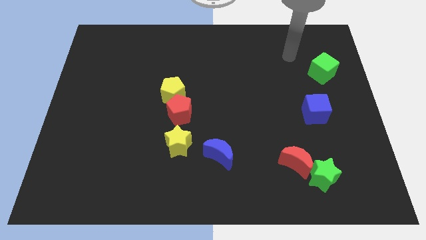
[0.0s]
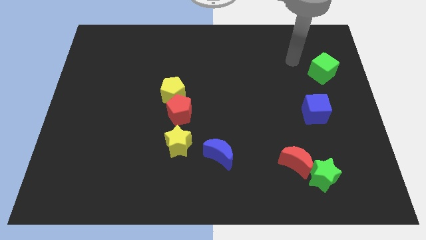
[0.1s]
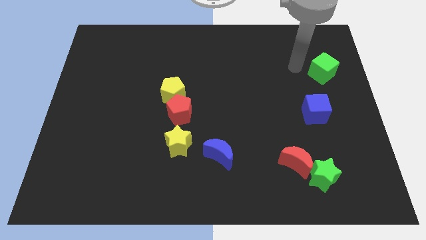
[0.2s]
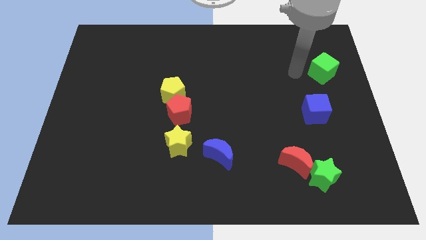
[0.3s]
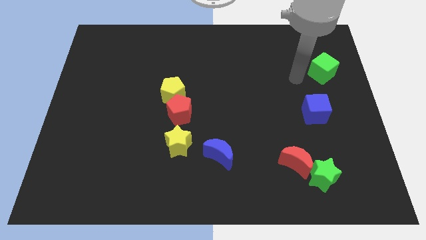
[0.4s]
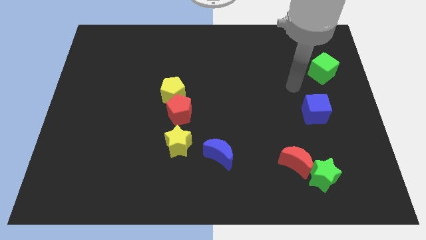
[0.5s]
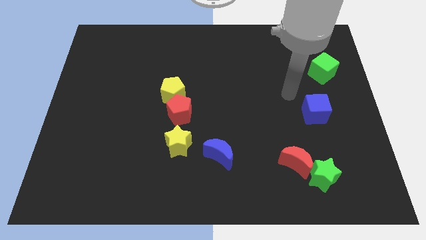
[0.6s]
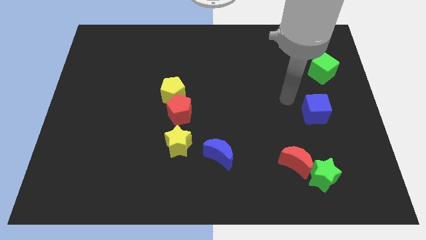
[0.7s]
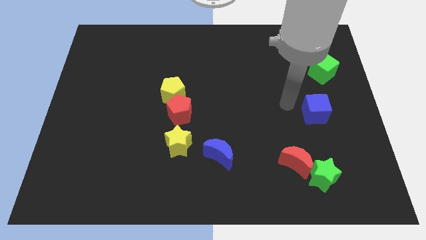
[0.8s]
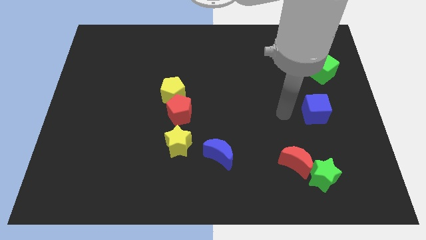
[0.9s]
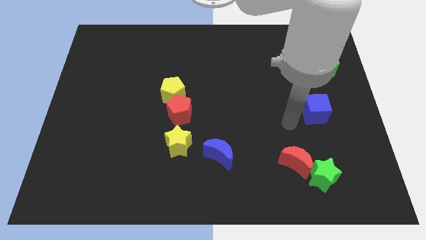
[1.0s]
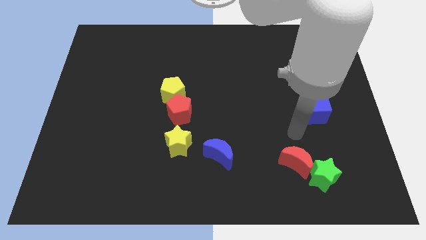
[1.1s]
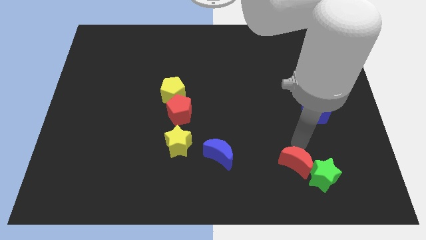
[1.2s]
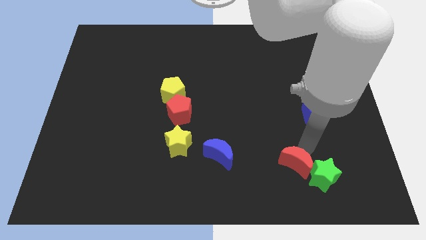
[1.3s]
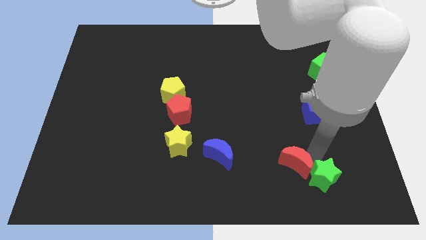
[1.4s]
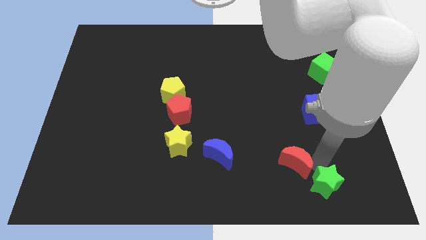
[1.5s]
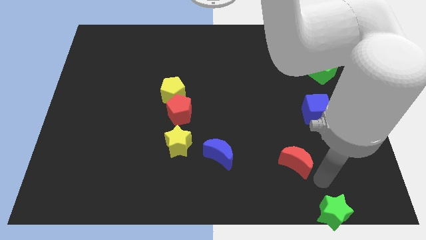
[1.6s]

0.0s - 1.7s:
pull the red moon apart from the green star

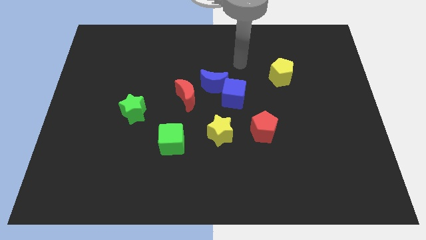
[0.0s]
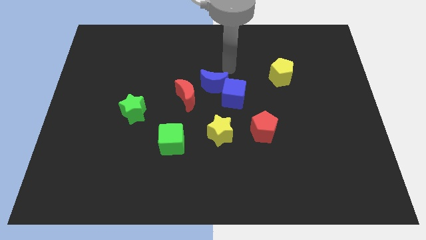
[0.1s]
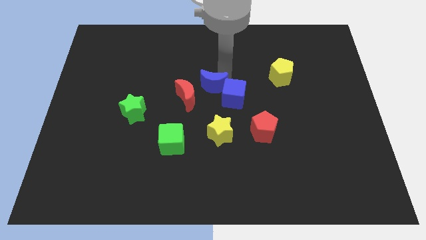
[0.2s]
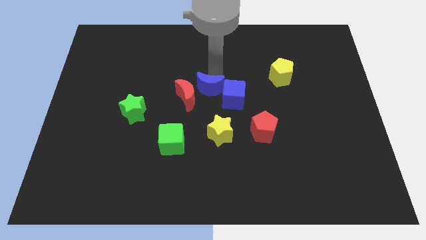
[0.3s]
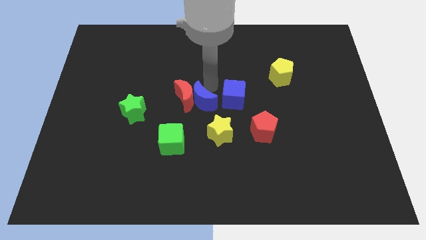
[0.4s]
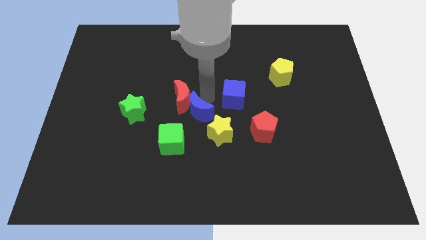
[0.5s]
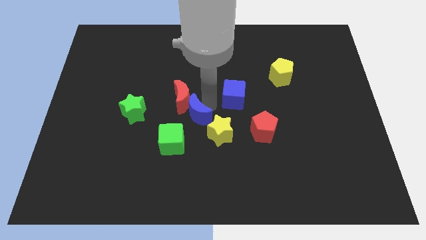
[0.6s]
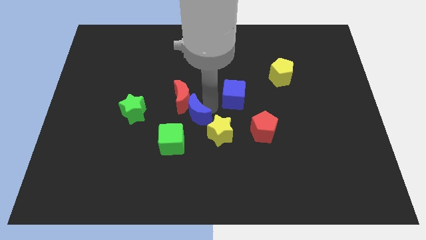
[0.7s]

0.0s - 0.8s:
move the blue cube away from the blue moon

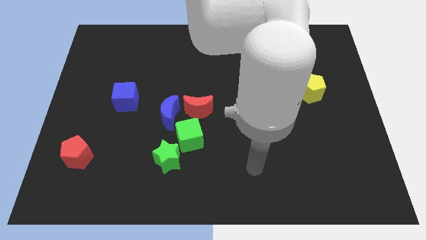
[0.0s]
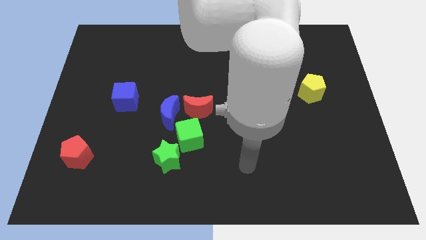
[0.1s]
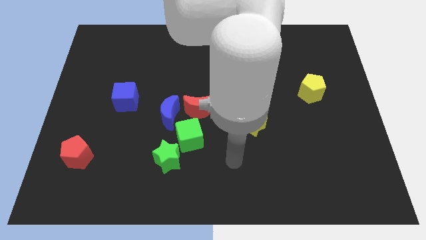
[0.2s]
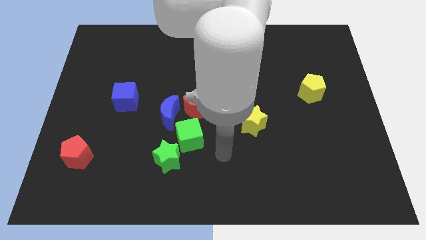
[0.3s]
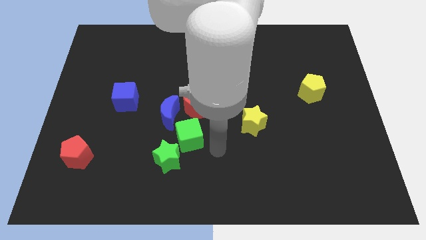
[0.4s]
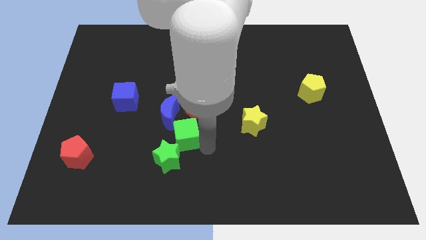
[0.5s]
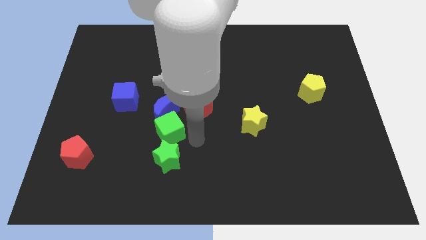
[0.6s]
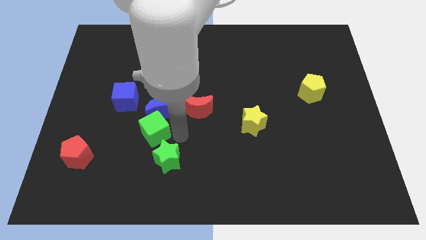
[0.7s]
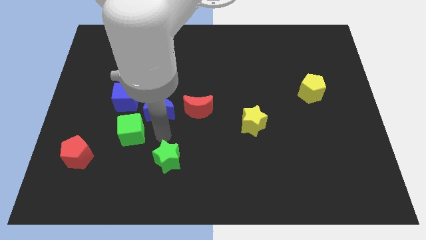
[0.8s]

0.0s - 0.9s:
move the green star away from the green cube

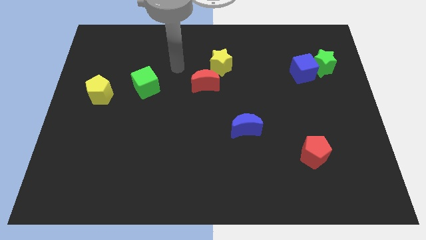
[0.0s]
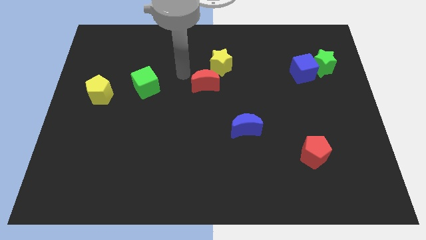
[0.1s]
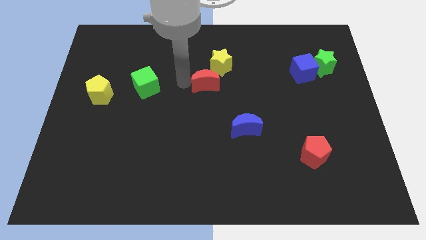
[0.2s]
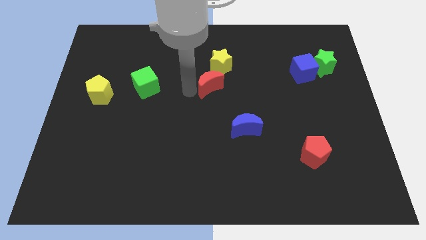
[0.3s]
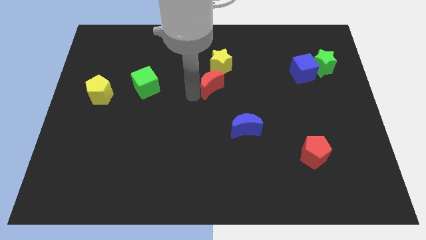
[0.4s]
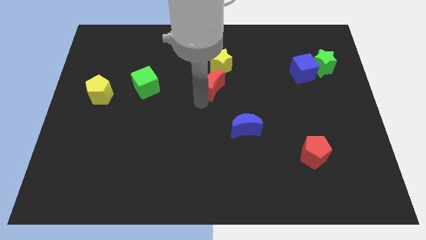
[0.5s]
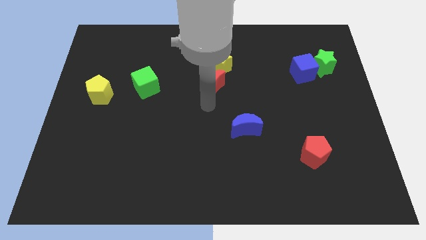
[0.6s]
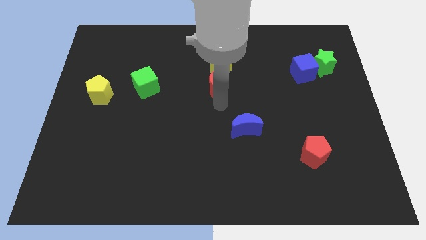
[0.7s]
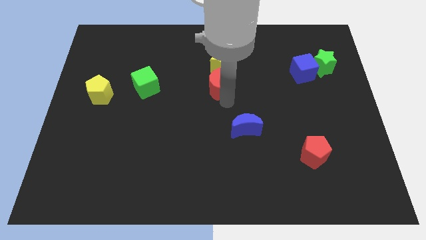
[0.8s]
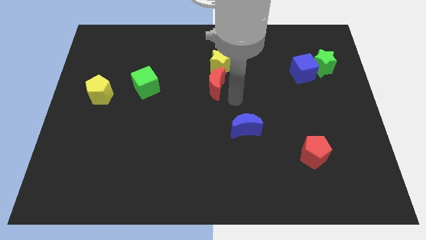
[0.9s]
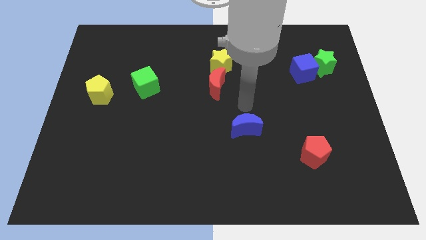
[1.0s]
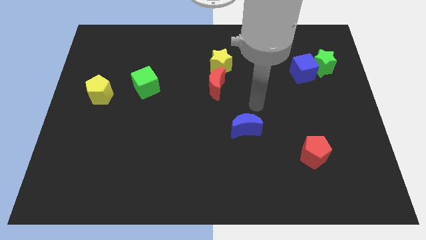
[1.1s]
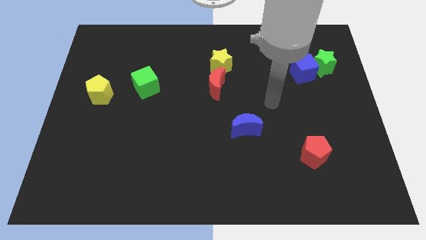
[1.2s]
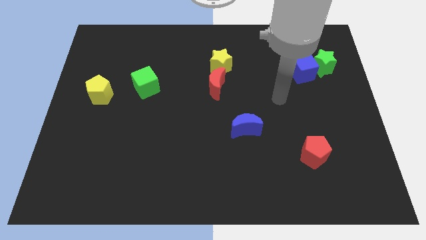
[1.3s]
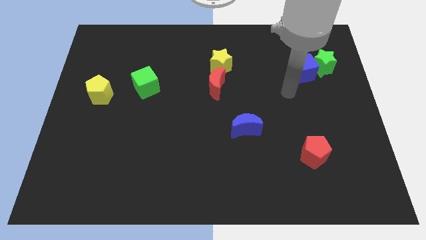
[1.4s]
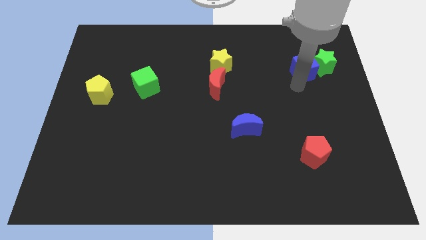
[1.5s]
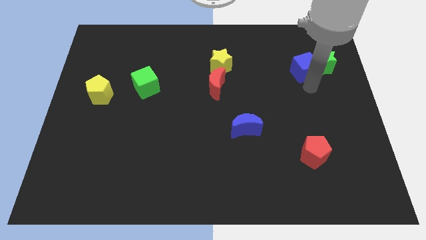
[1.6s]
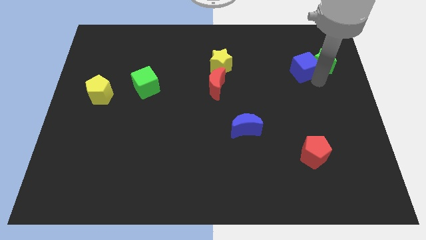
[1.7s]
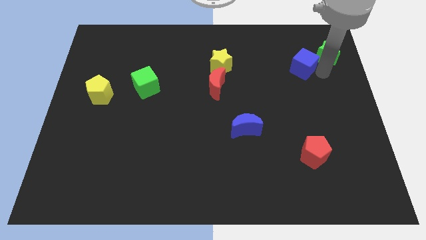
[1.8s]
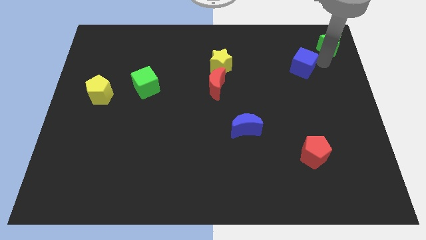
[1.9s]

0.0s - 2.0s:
pull the blue cube apart from the green star

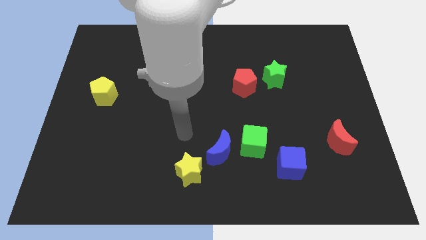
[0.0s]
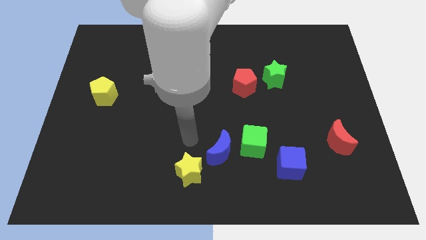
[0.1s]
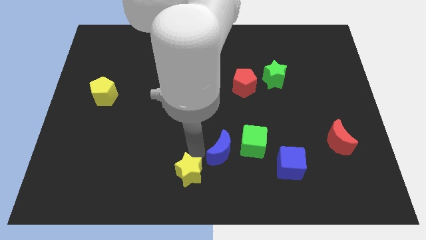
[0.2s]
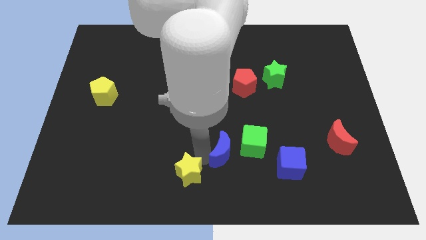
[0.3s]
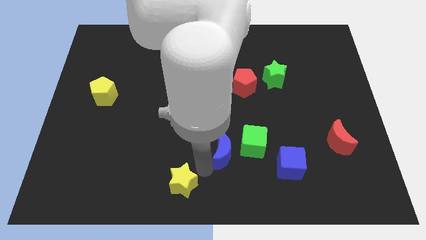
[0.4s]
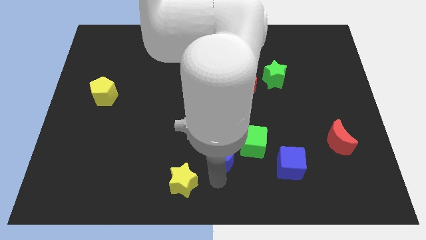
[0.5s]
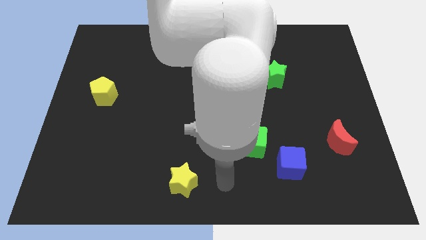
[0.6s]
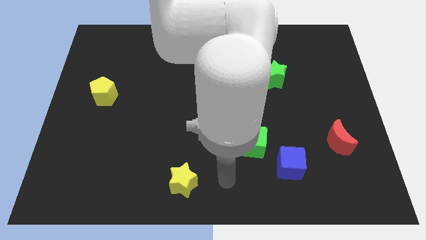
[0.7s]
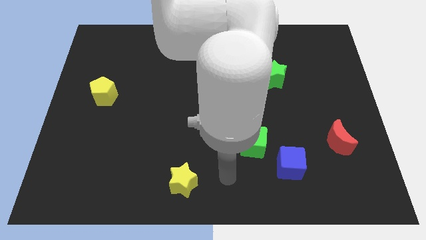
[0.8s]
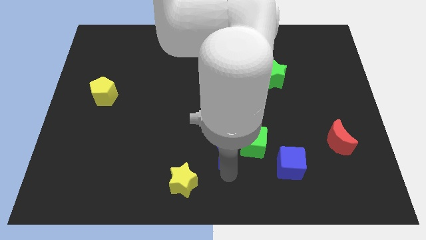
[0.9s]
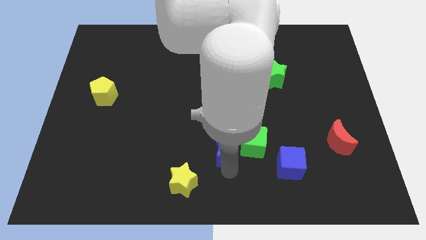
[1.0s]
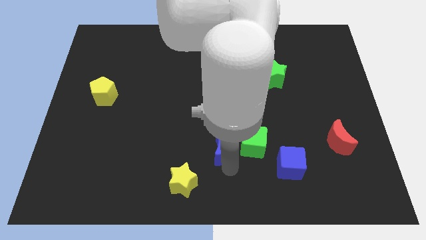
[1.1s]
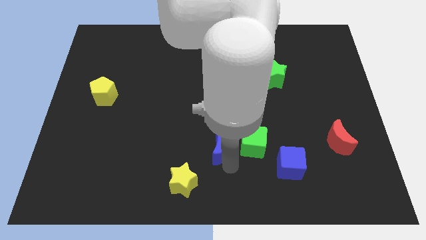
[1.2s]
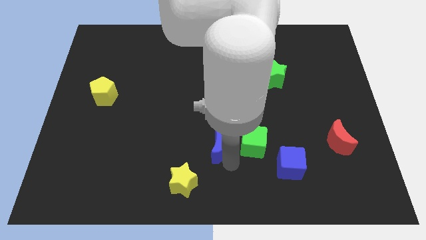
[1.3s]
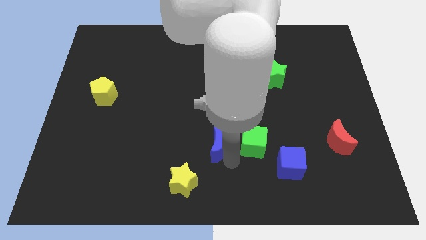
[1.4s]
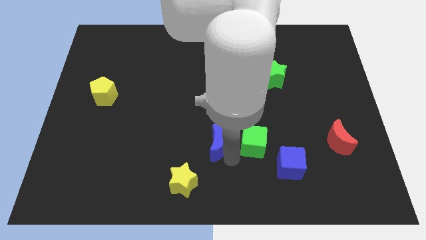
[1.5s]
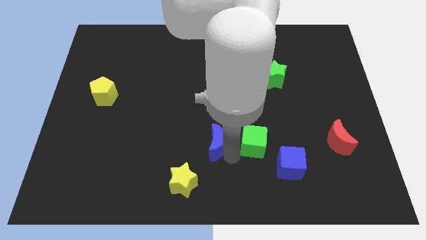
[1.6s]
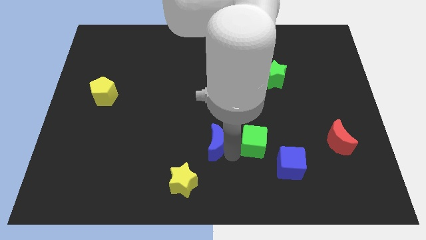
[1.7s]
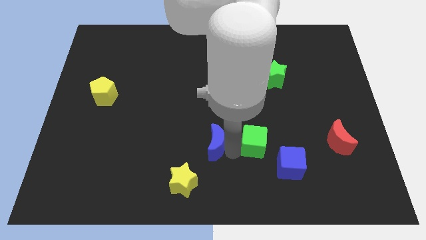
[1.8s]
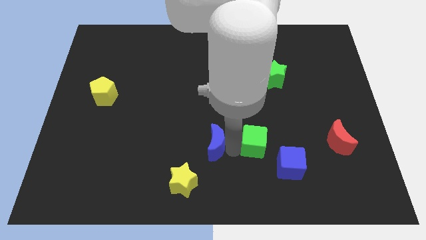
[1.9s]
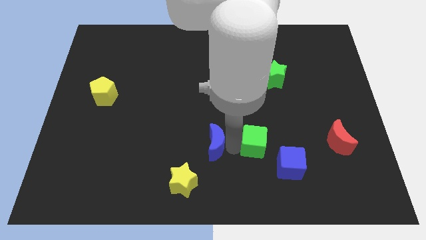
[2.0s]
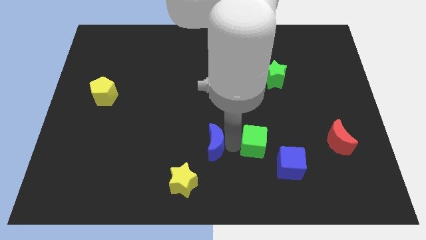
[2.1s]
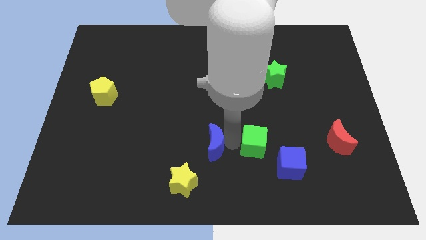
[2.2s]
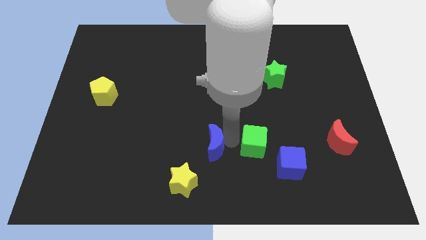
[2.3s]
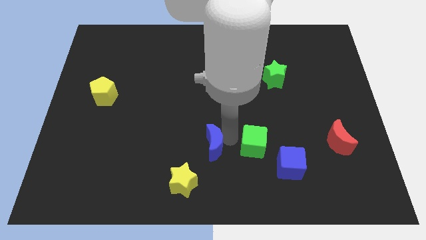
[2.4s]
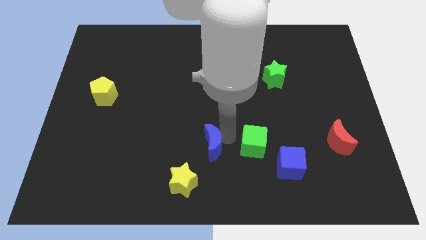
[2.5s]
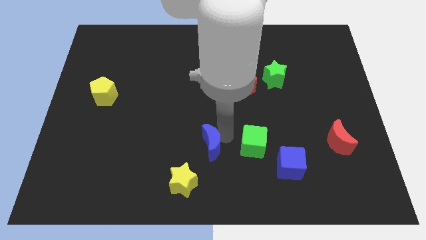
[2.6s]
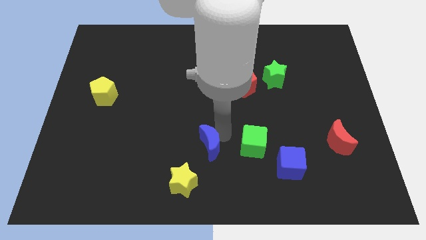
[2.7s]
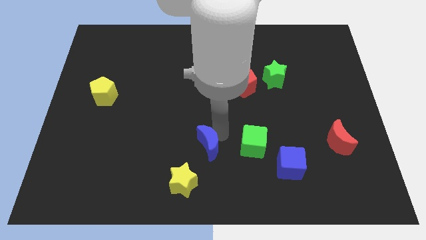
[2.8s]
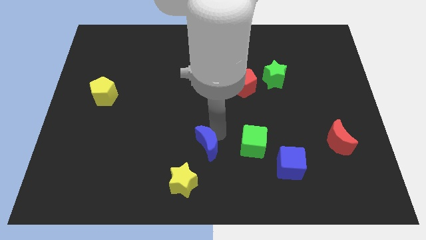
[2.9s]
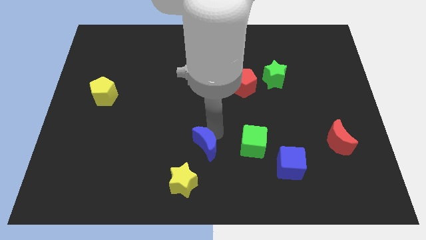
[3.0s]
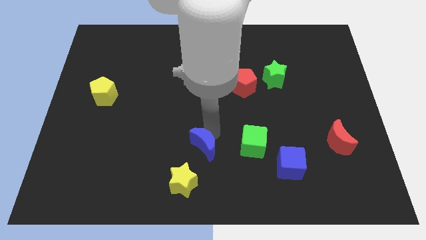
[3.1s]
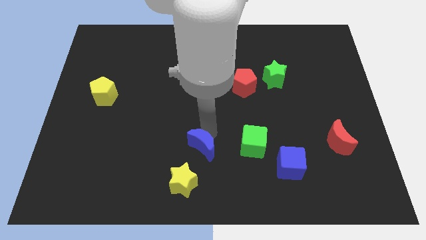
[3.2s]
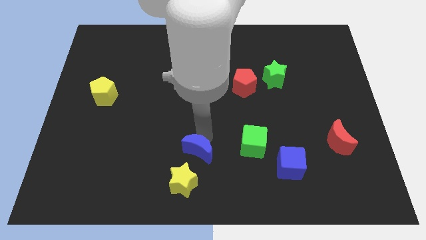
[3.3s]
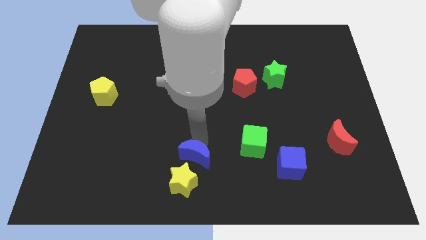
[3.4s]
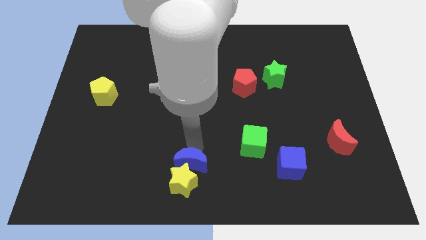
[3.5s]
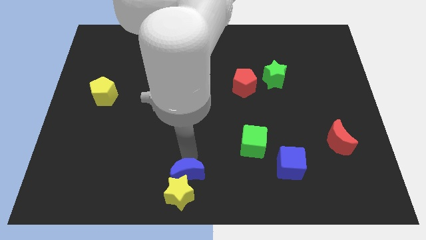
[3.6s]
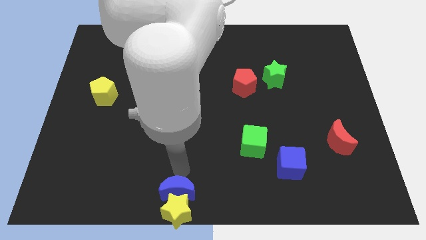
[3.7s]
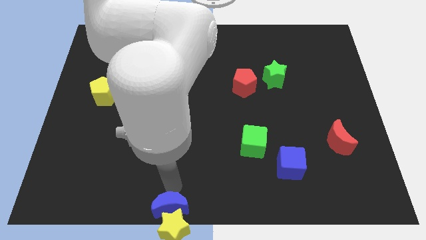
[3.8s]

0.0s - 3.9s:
move the blue moon away from the green cube and yellow star

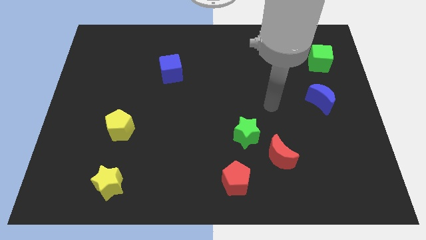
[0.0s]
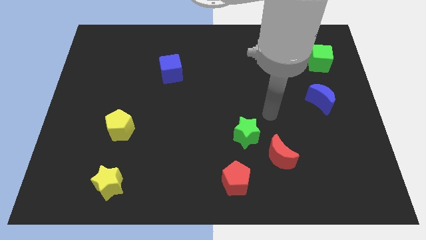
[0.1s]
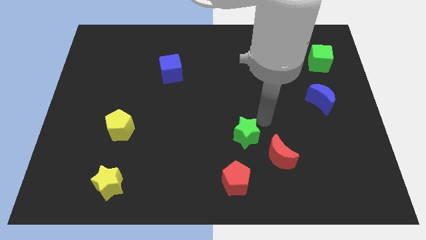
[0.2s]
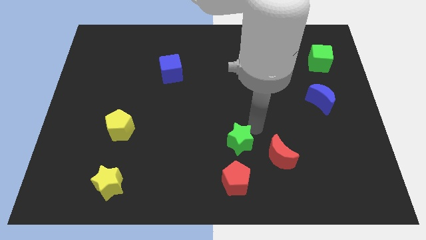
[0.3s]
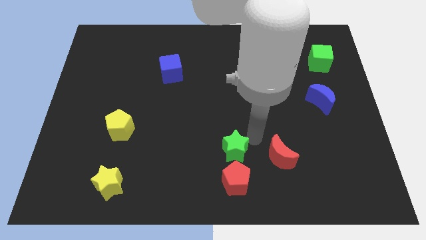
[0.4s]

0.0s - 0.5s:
separate the red moon from the green star
